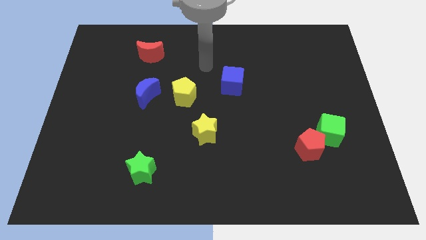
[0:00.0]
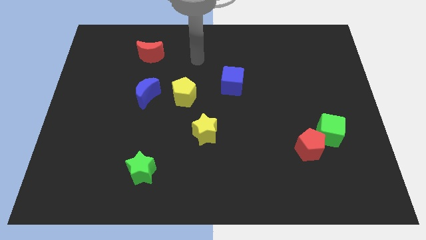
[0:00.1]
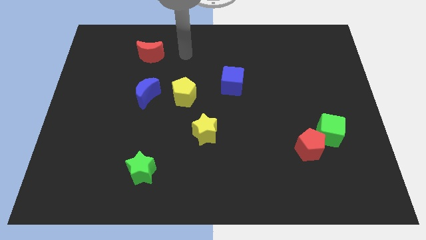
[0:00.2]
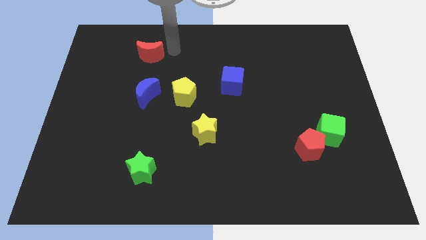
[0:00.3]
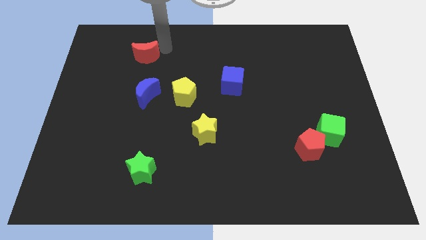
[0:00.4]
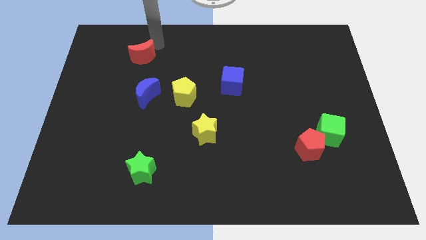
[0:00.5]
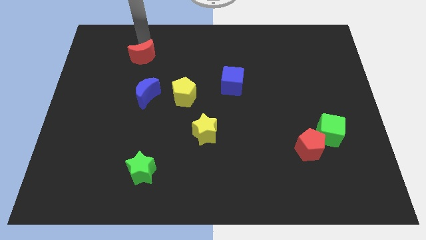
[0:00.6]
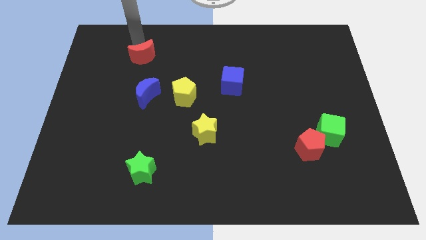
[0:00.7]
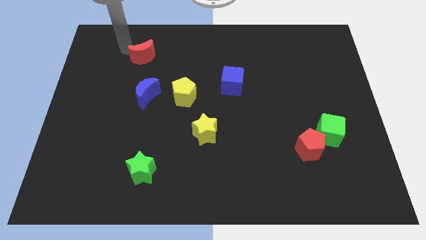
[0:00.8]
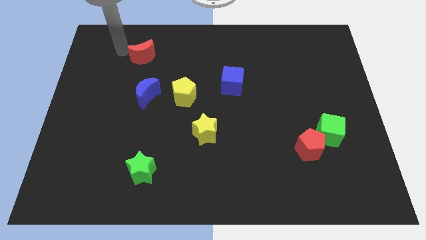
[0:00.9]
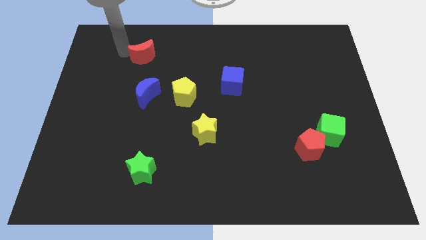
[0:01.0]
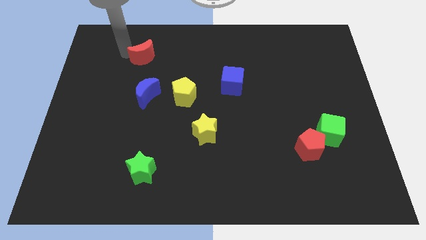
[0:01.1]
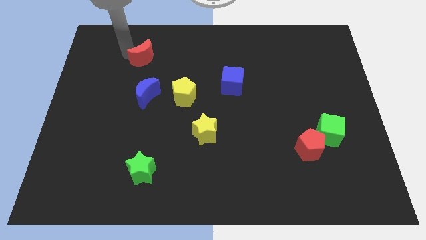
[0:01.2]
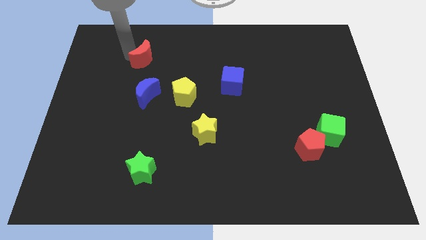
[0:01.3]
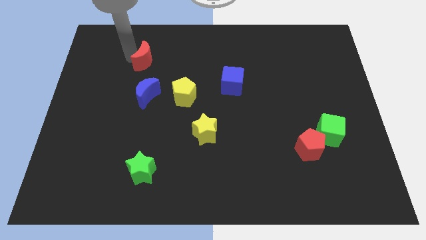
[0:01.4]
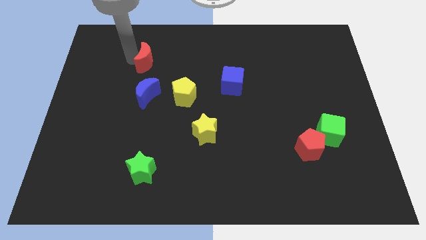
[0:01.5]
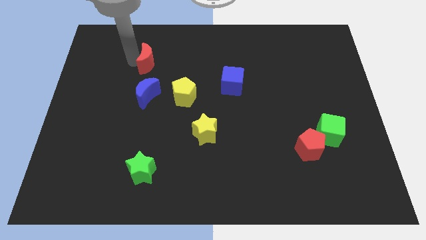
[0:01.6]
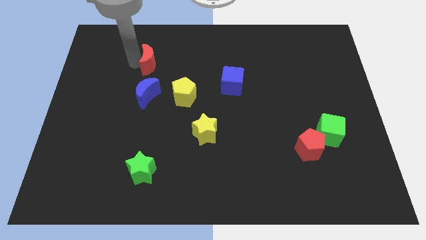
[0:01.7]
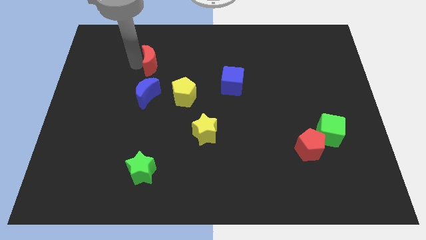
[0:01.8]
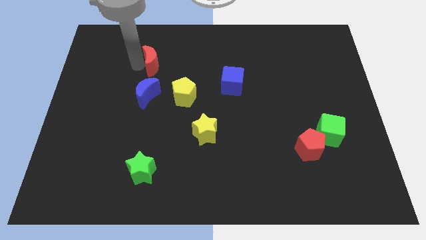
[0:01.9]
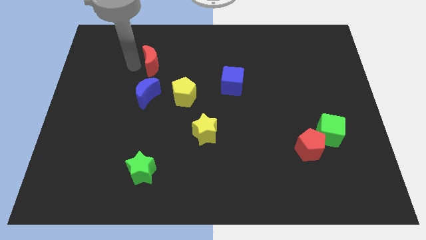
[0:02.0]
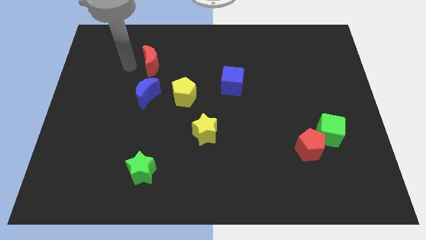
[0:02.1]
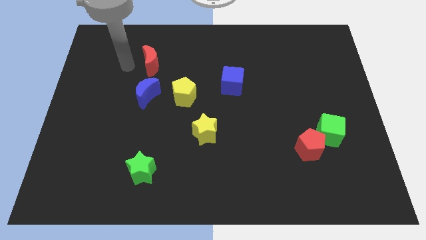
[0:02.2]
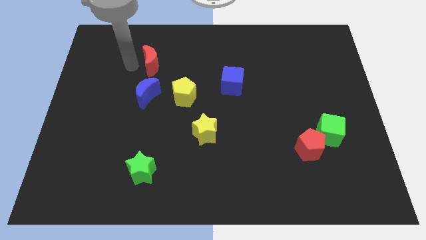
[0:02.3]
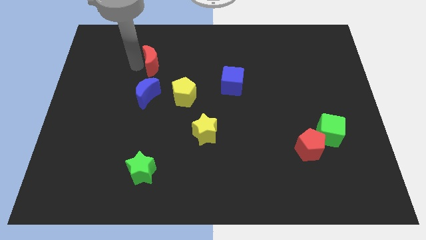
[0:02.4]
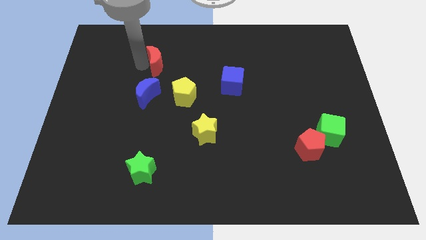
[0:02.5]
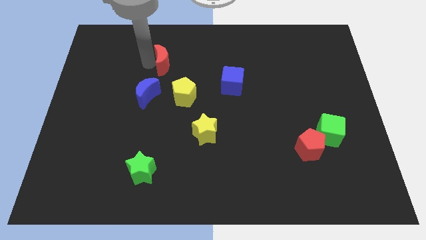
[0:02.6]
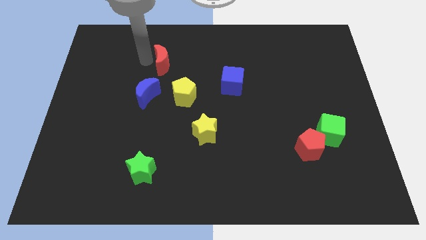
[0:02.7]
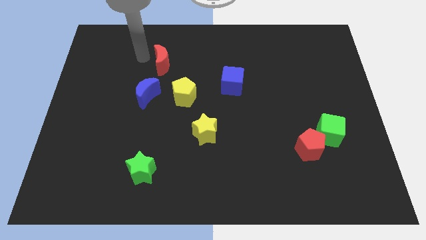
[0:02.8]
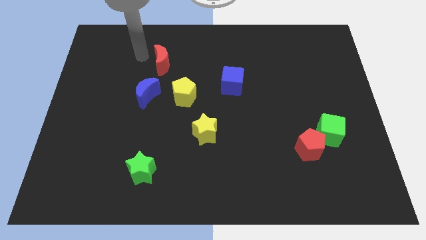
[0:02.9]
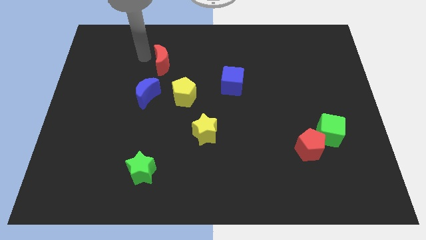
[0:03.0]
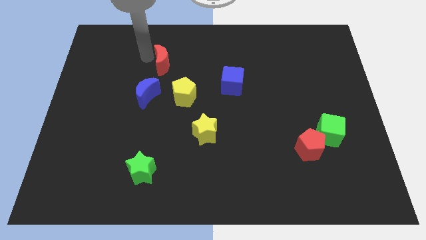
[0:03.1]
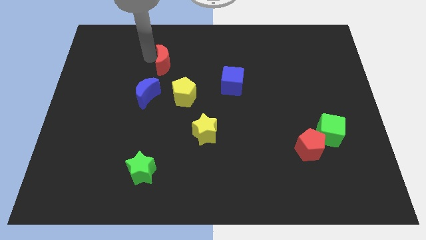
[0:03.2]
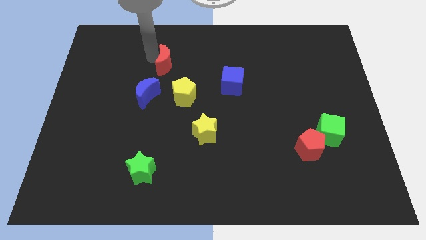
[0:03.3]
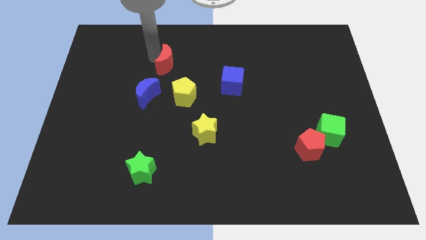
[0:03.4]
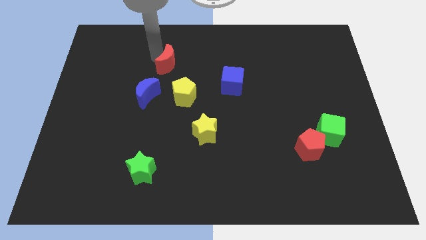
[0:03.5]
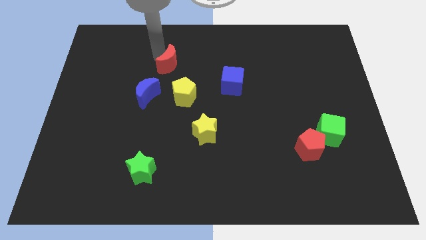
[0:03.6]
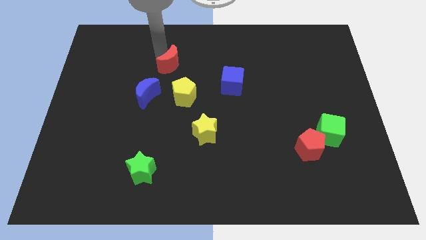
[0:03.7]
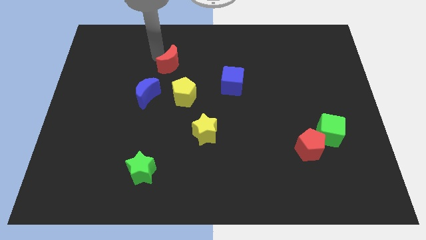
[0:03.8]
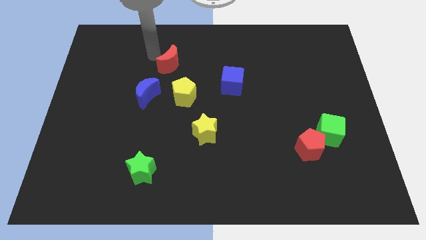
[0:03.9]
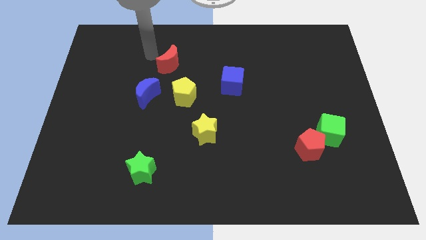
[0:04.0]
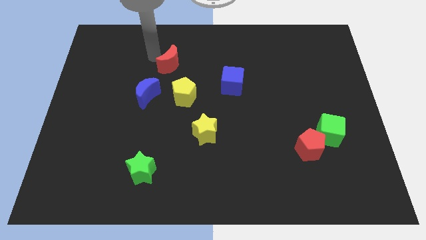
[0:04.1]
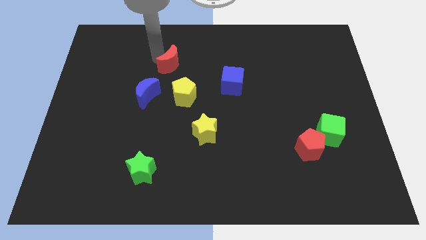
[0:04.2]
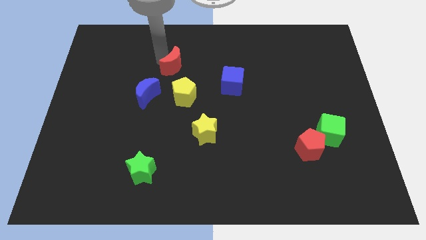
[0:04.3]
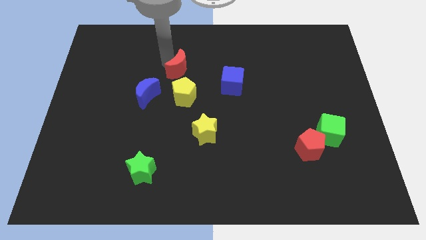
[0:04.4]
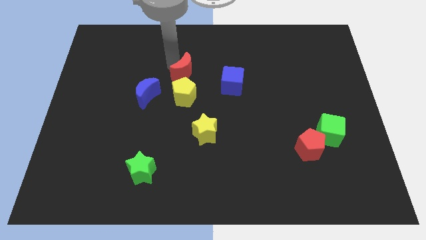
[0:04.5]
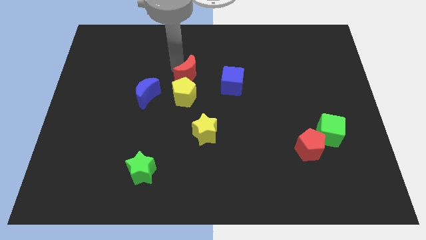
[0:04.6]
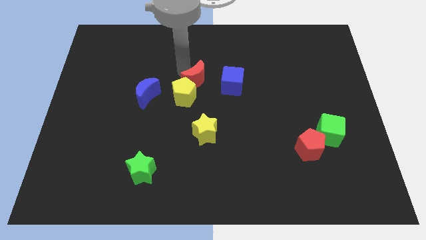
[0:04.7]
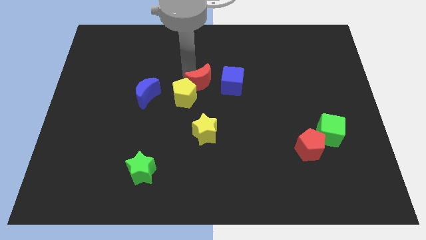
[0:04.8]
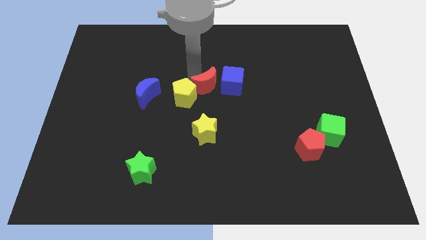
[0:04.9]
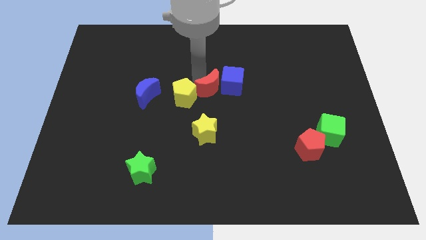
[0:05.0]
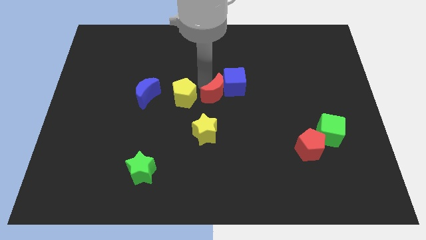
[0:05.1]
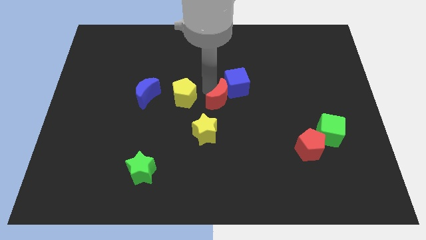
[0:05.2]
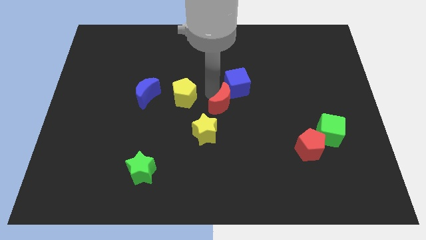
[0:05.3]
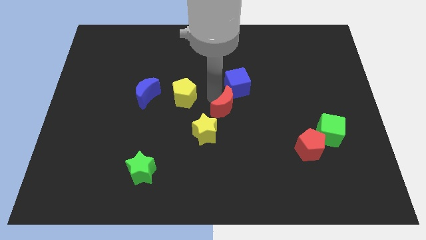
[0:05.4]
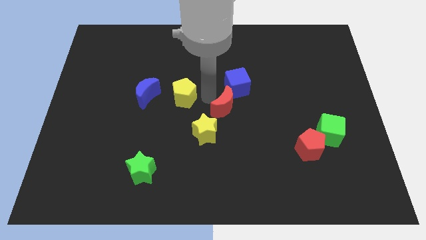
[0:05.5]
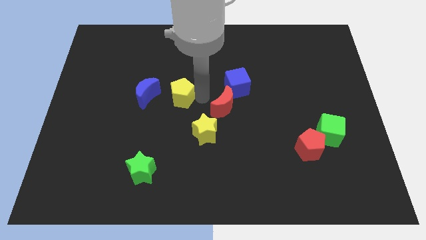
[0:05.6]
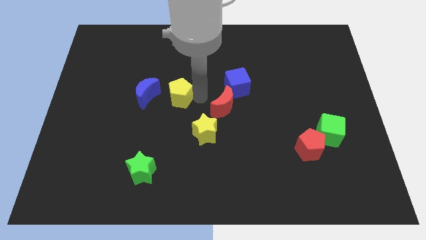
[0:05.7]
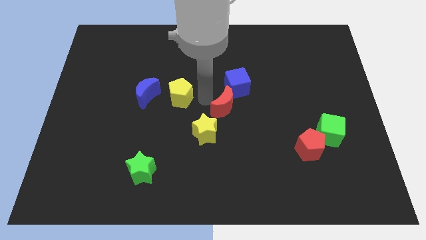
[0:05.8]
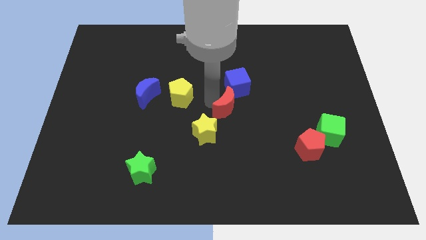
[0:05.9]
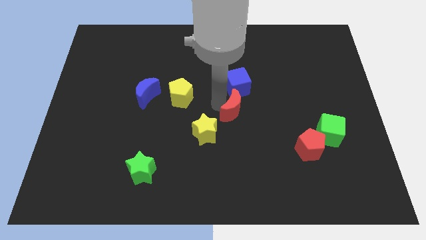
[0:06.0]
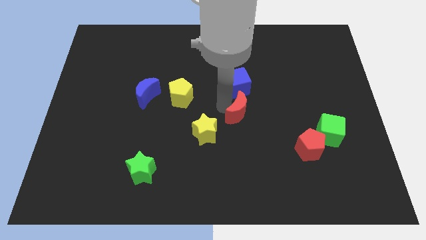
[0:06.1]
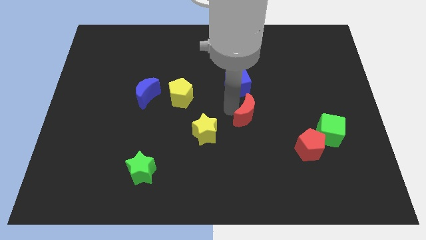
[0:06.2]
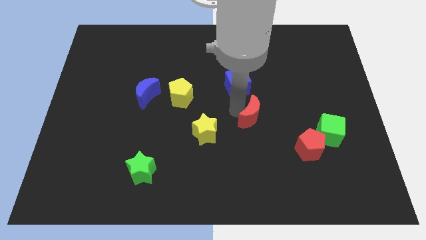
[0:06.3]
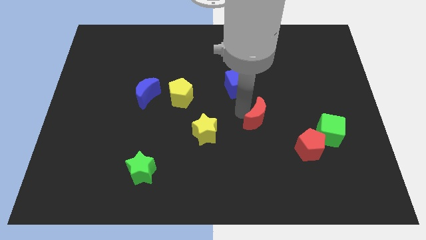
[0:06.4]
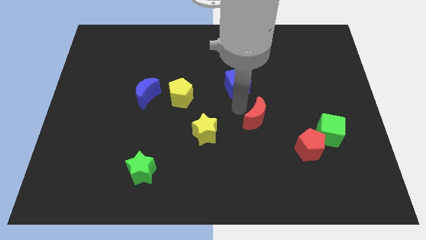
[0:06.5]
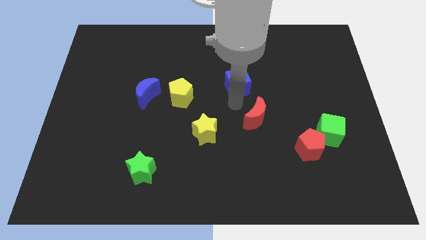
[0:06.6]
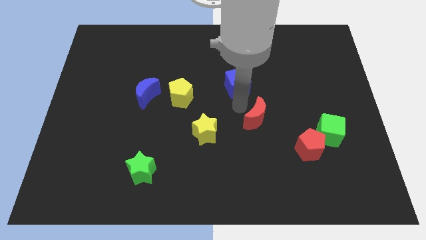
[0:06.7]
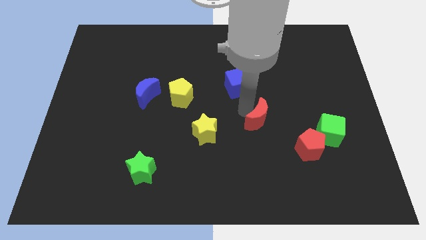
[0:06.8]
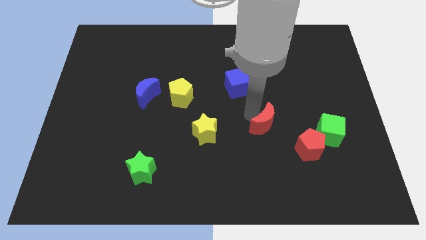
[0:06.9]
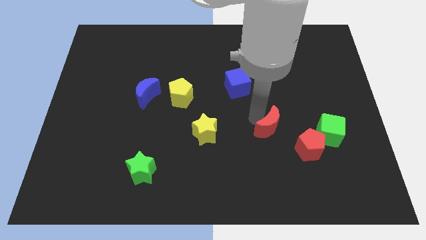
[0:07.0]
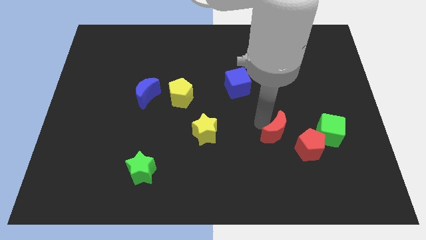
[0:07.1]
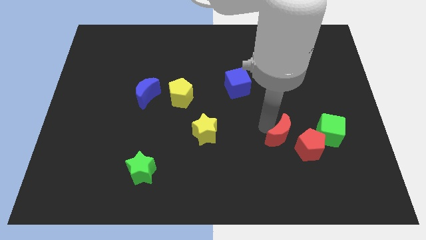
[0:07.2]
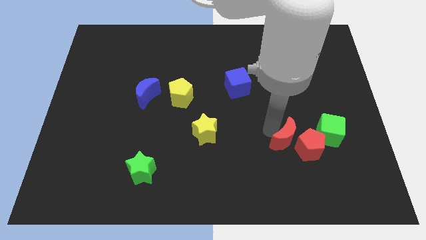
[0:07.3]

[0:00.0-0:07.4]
push the red moon to the red pentagon

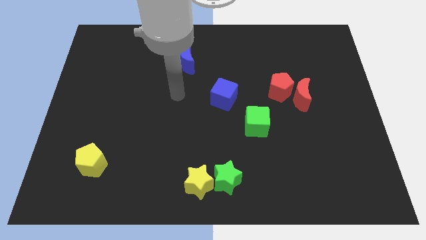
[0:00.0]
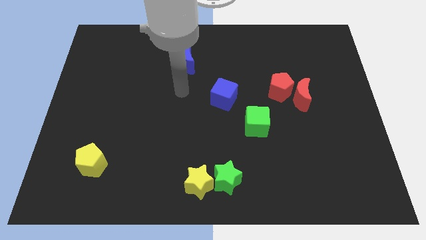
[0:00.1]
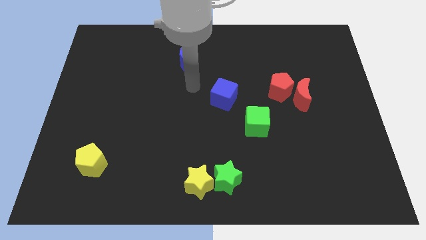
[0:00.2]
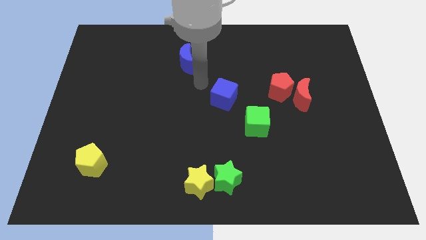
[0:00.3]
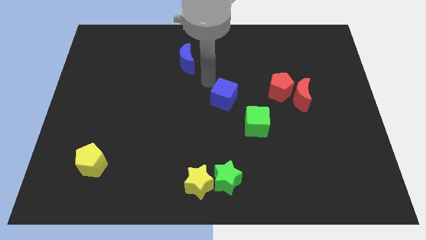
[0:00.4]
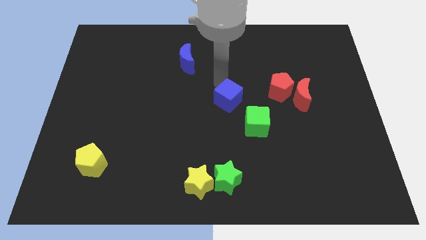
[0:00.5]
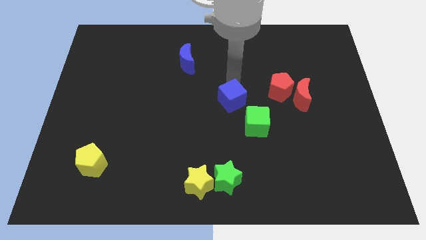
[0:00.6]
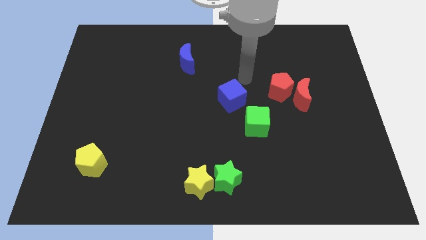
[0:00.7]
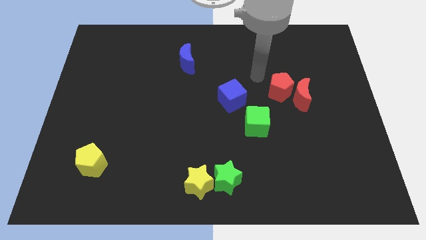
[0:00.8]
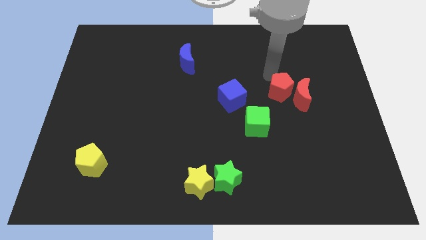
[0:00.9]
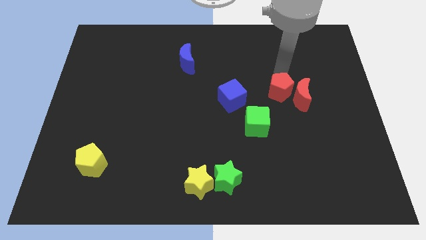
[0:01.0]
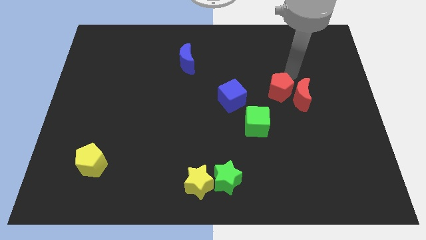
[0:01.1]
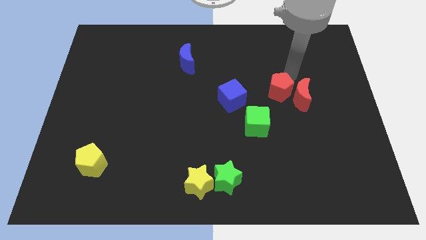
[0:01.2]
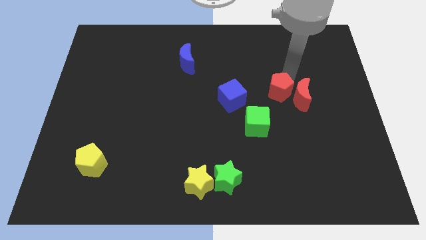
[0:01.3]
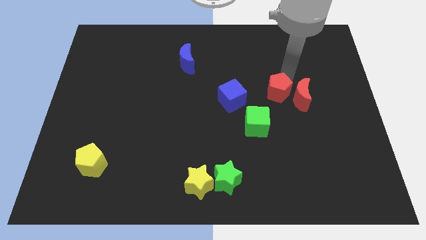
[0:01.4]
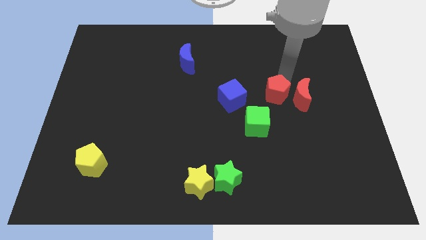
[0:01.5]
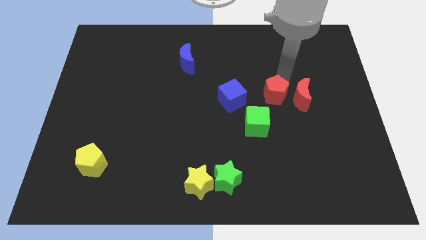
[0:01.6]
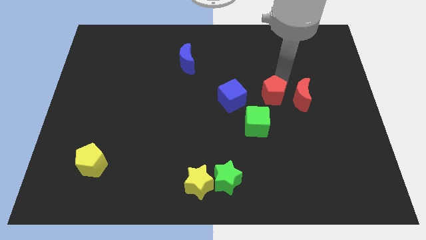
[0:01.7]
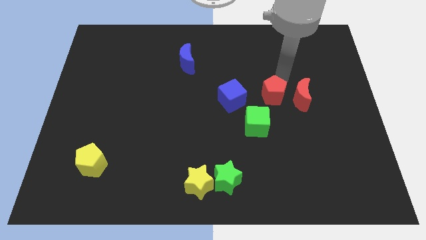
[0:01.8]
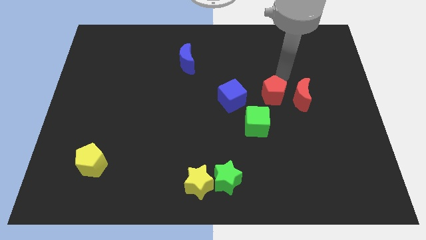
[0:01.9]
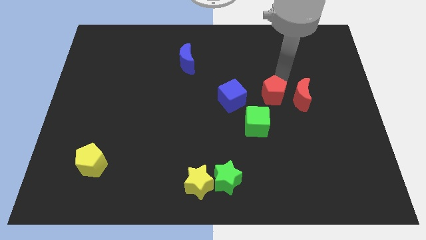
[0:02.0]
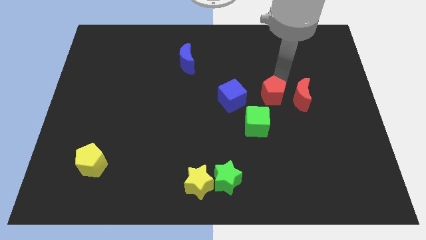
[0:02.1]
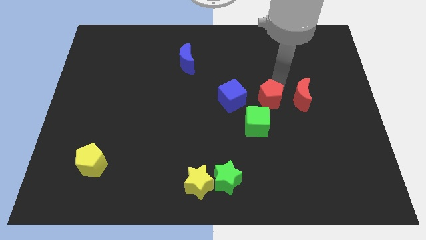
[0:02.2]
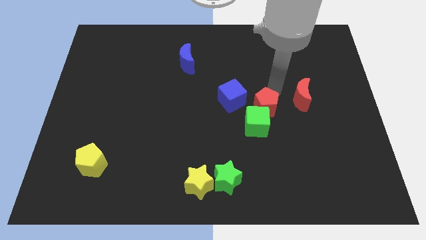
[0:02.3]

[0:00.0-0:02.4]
slide the red pentagon to the green cube
